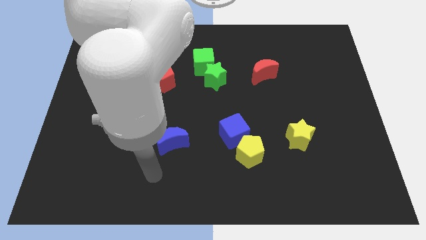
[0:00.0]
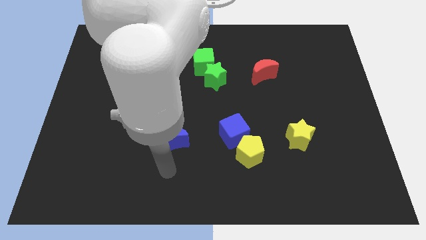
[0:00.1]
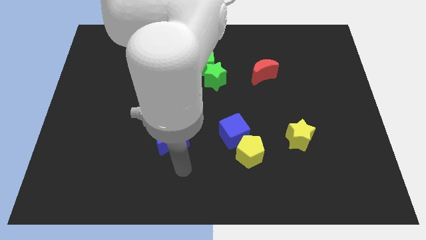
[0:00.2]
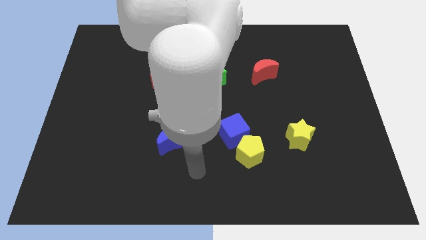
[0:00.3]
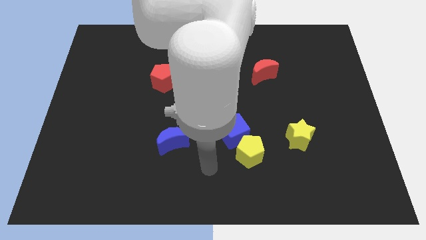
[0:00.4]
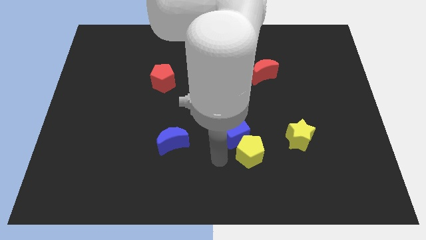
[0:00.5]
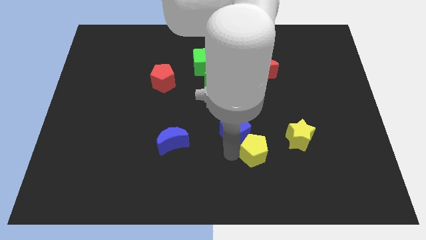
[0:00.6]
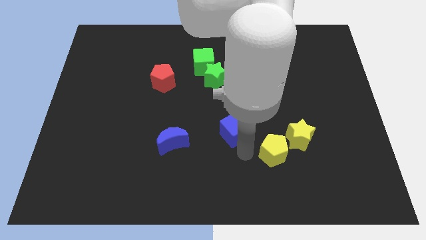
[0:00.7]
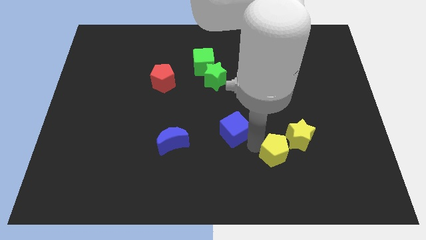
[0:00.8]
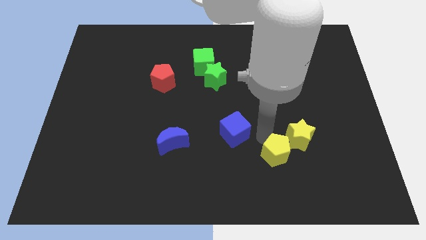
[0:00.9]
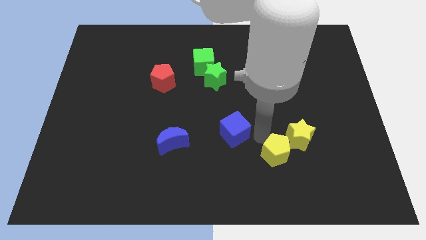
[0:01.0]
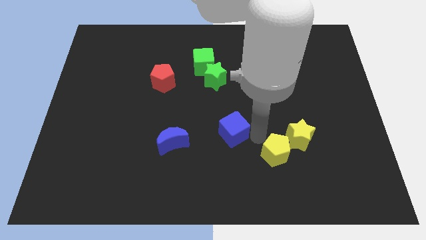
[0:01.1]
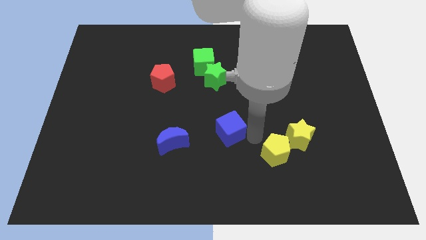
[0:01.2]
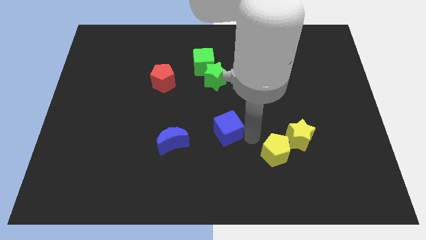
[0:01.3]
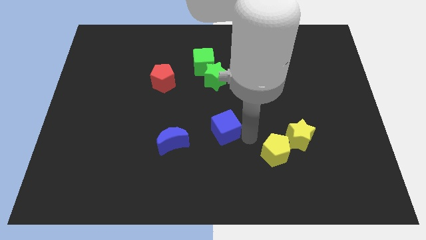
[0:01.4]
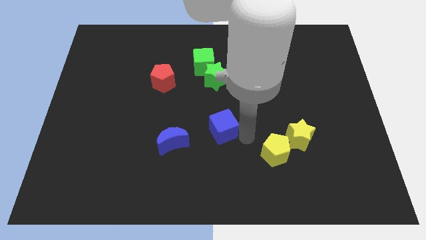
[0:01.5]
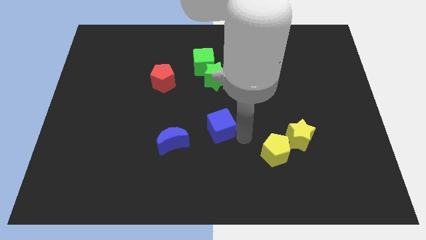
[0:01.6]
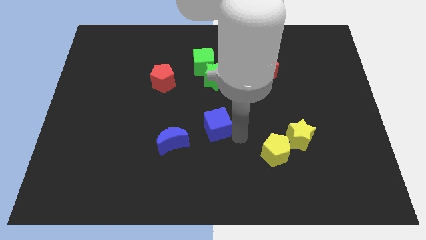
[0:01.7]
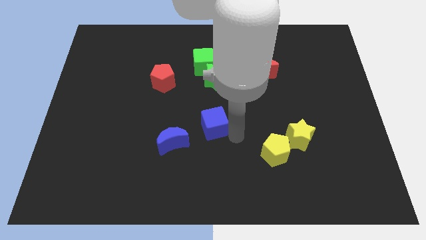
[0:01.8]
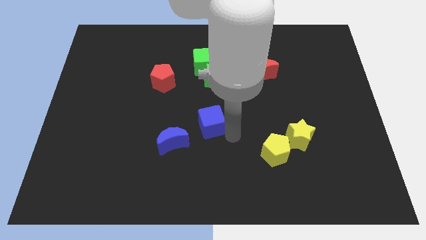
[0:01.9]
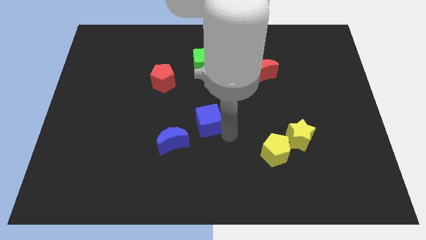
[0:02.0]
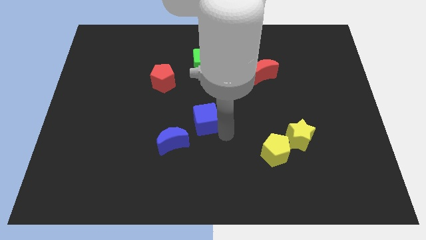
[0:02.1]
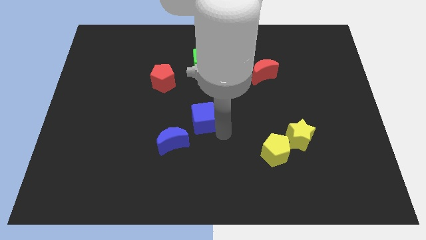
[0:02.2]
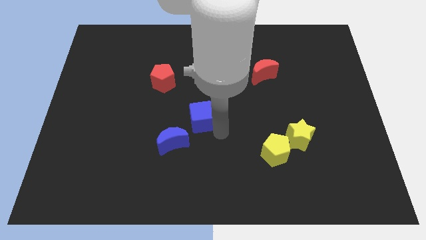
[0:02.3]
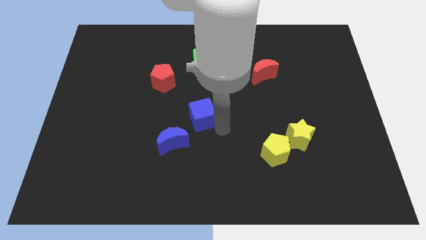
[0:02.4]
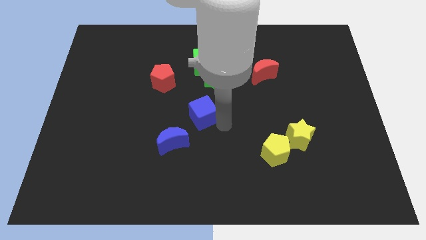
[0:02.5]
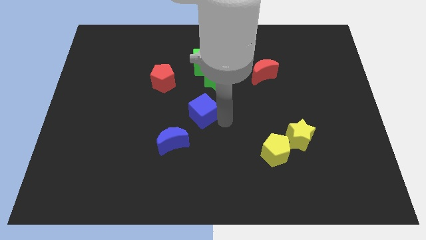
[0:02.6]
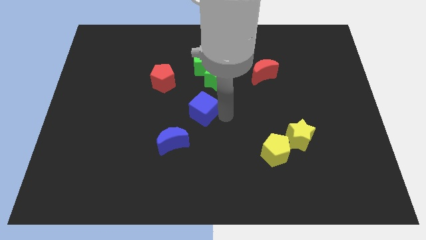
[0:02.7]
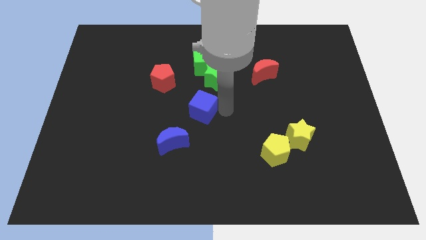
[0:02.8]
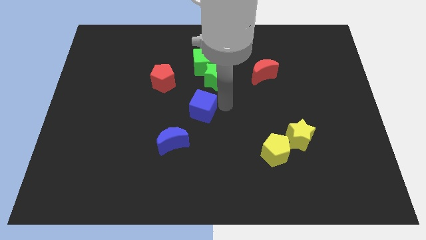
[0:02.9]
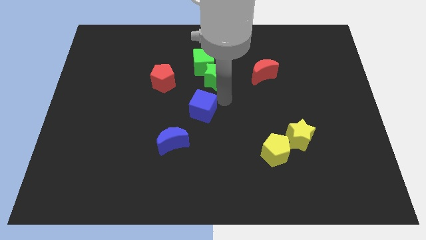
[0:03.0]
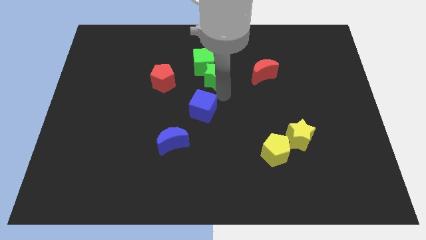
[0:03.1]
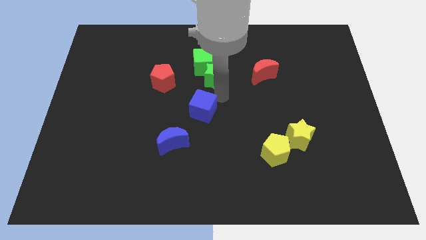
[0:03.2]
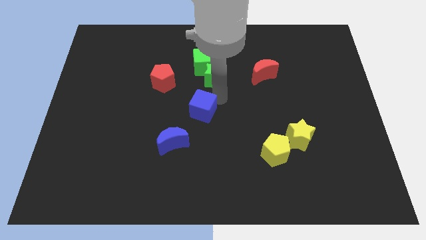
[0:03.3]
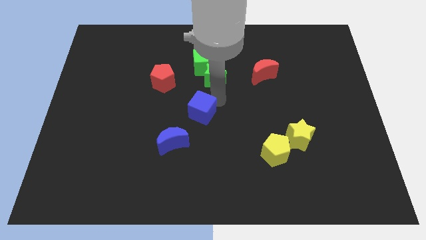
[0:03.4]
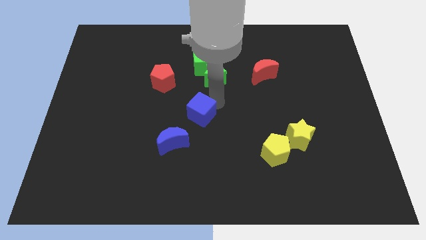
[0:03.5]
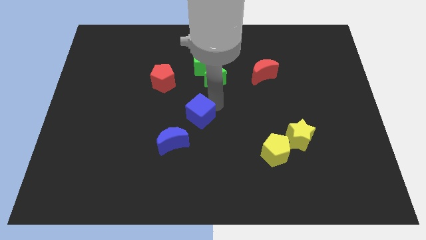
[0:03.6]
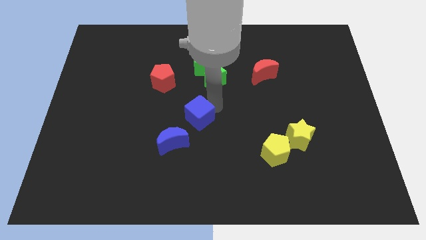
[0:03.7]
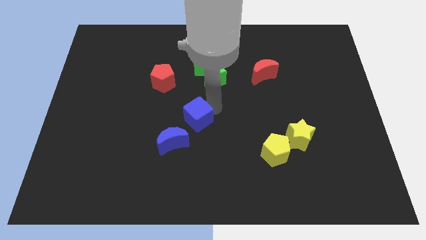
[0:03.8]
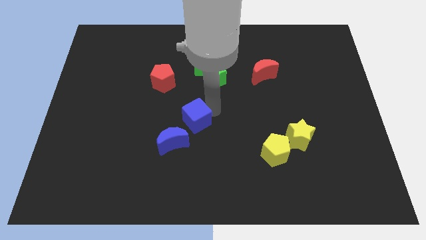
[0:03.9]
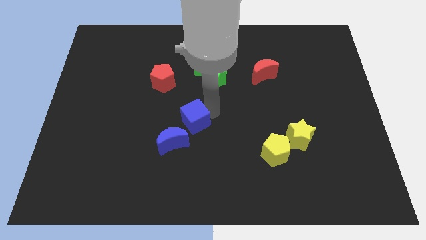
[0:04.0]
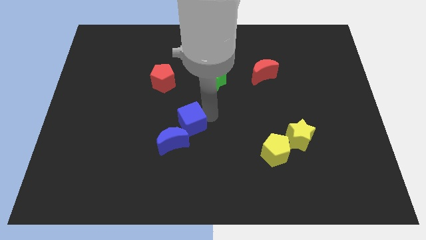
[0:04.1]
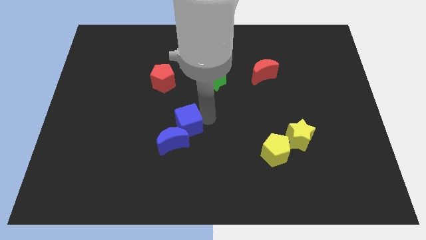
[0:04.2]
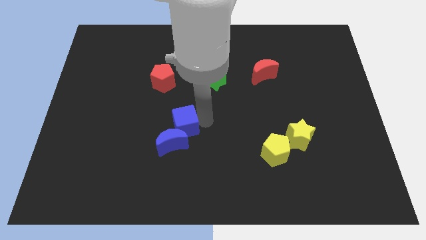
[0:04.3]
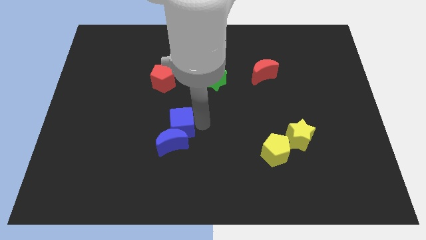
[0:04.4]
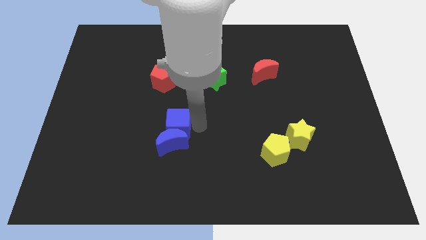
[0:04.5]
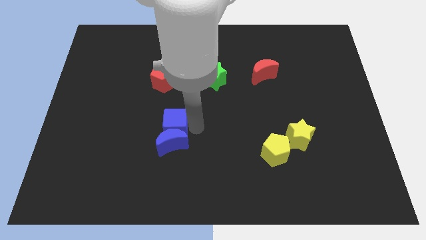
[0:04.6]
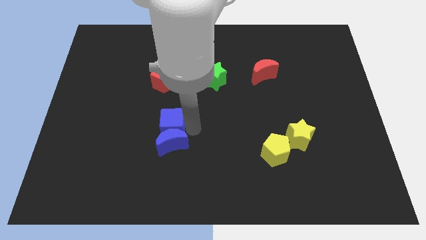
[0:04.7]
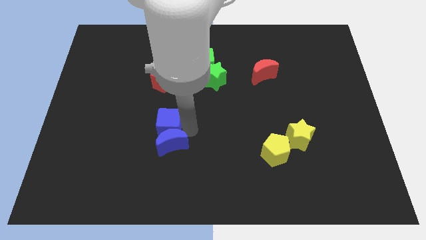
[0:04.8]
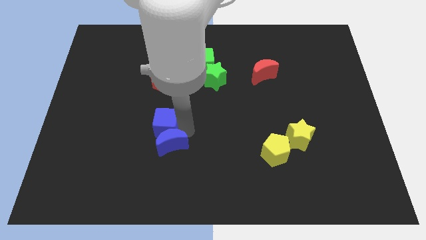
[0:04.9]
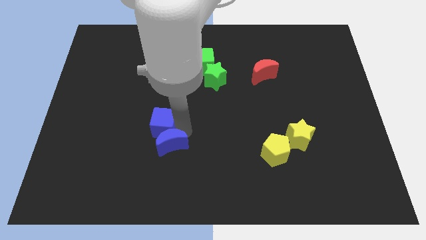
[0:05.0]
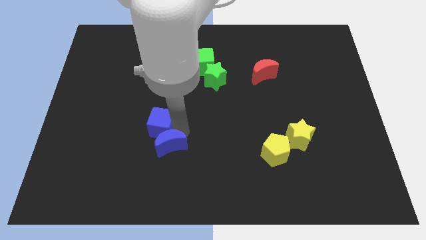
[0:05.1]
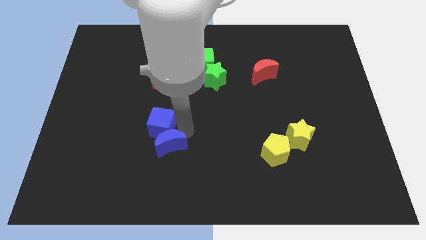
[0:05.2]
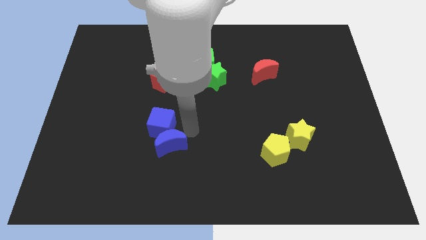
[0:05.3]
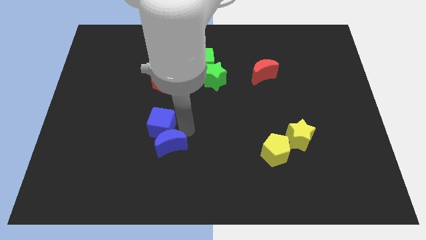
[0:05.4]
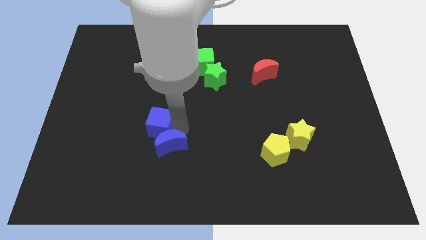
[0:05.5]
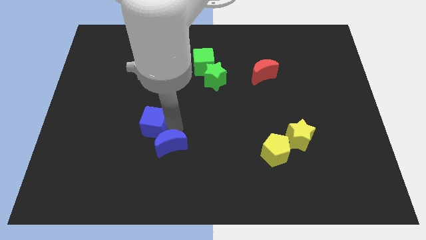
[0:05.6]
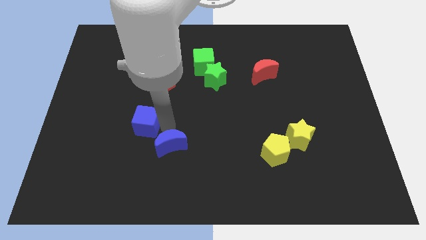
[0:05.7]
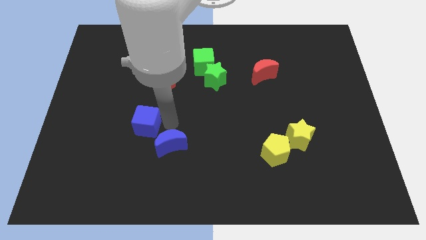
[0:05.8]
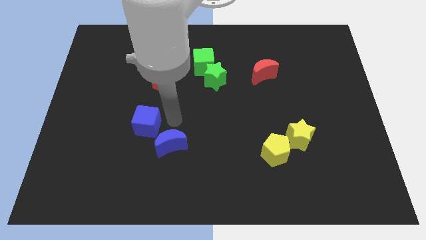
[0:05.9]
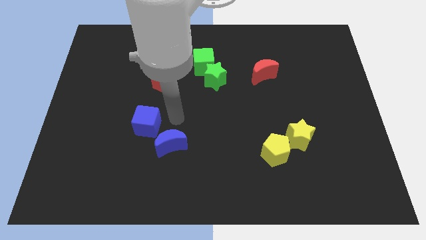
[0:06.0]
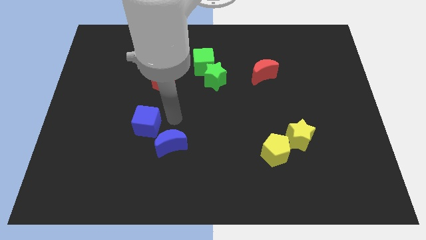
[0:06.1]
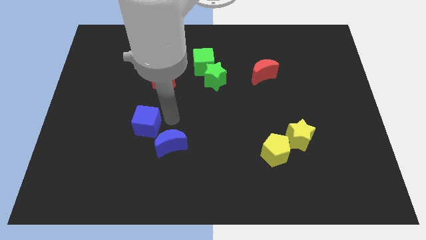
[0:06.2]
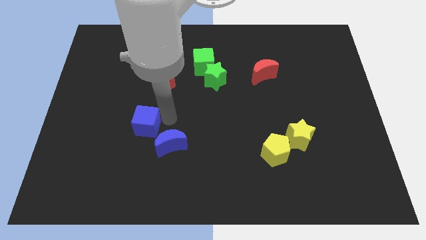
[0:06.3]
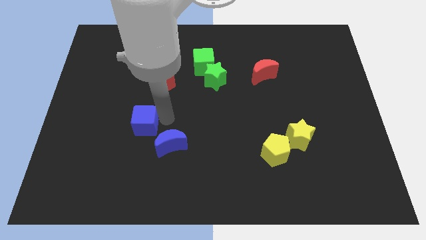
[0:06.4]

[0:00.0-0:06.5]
slide the blue cube to the left

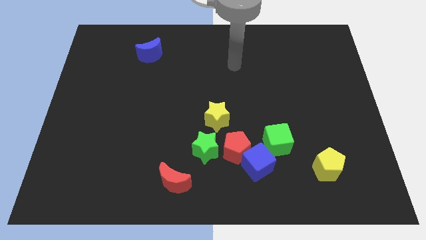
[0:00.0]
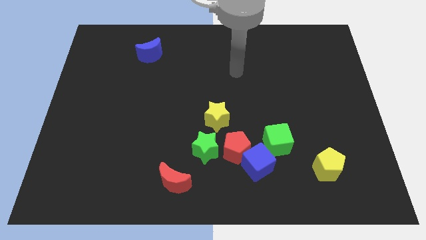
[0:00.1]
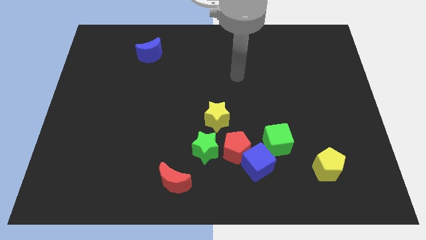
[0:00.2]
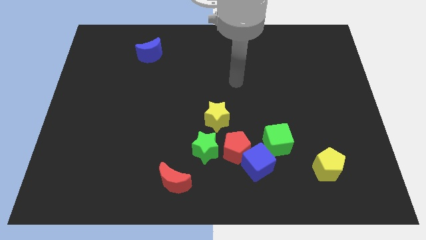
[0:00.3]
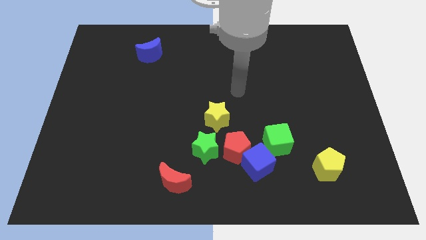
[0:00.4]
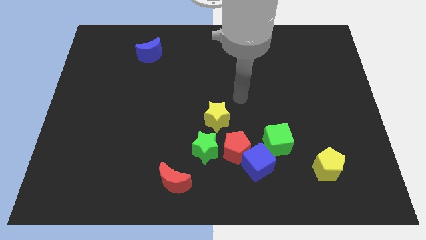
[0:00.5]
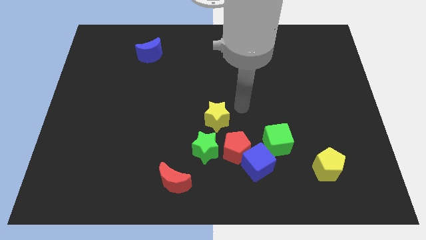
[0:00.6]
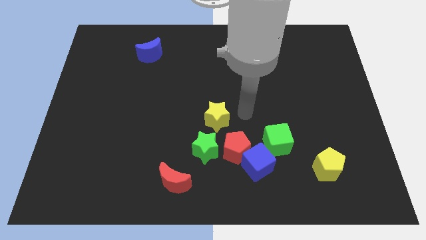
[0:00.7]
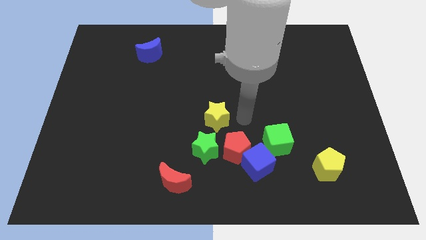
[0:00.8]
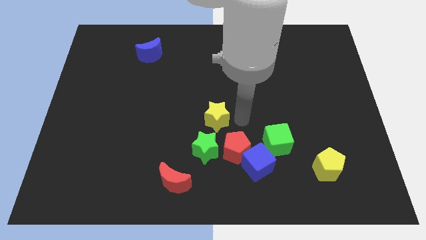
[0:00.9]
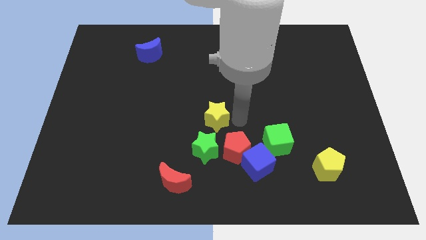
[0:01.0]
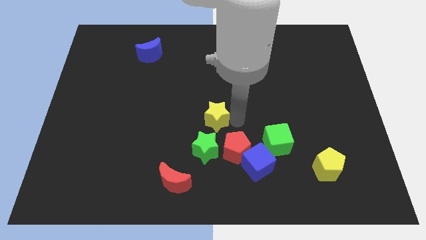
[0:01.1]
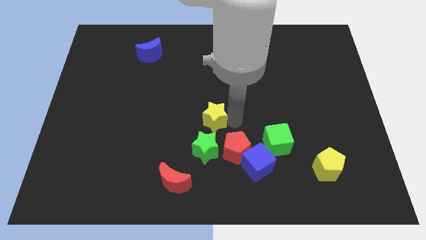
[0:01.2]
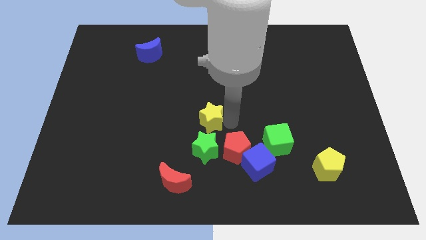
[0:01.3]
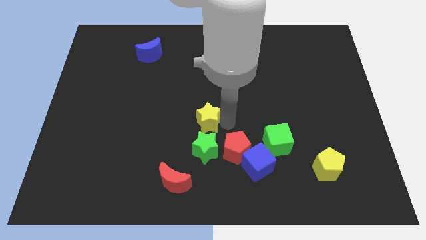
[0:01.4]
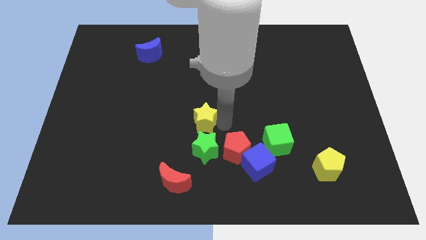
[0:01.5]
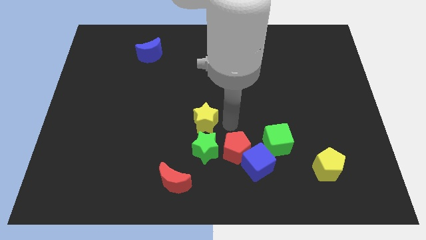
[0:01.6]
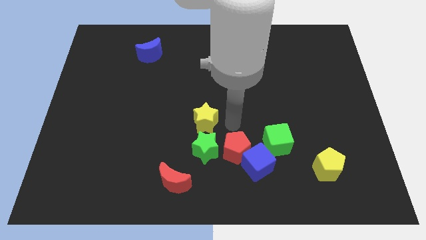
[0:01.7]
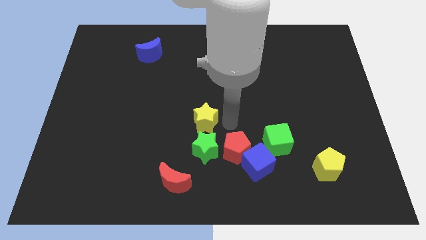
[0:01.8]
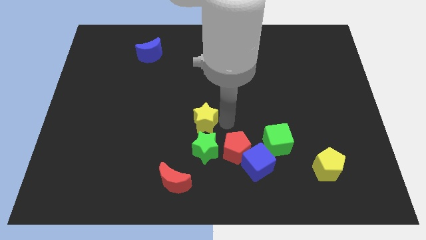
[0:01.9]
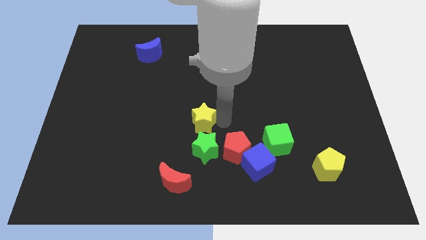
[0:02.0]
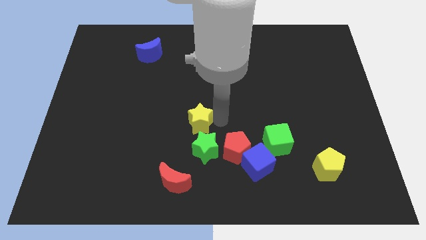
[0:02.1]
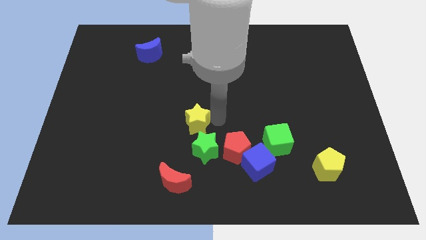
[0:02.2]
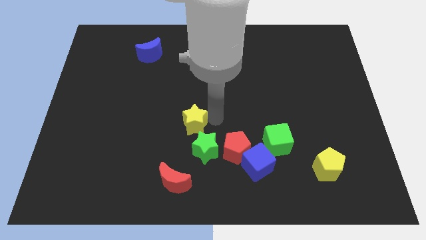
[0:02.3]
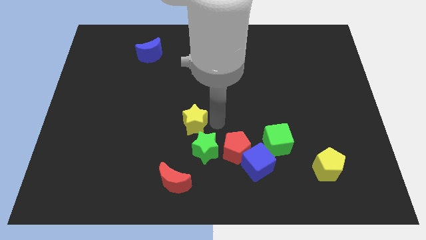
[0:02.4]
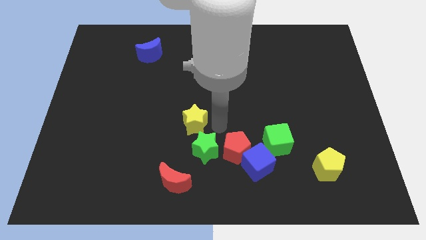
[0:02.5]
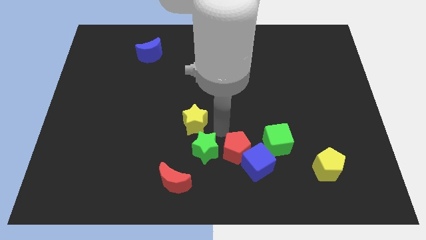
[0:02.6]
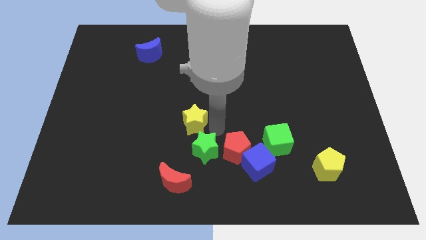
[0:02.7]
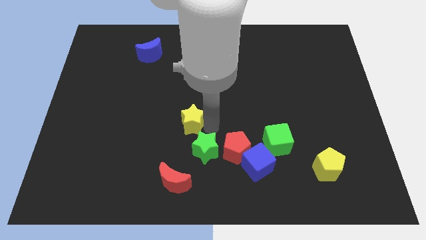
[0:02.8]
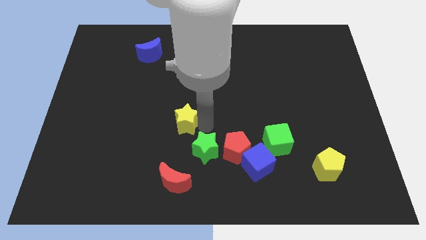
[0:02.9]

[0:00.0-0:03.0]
slide the yellow star a little bit to the left
